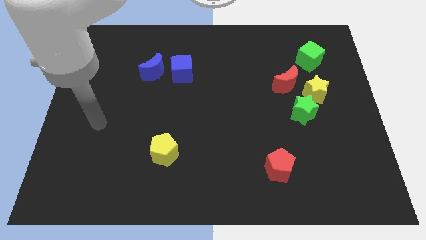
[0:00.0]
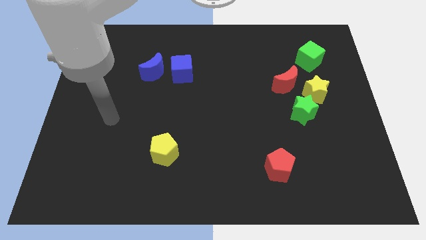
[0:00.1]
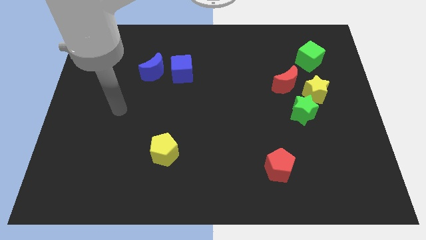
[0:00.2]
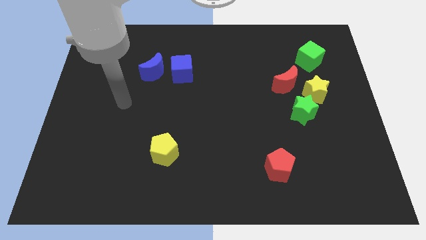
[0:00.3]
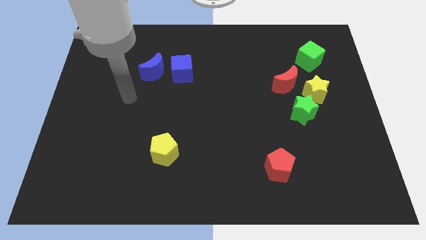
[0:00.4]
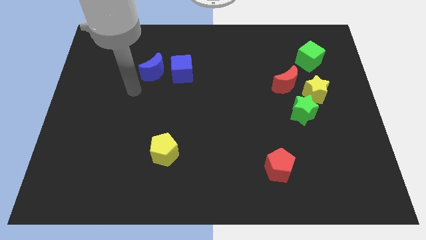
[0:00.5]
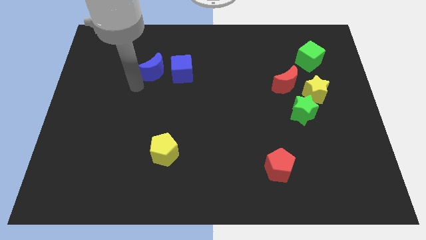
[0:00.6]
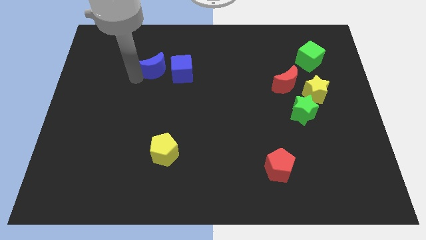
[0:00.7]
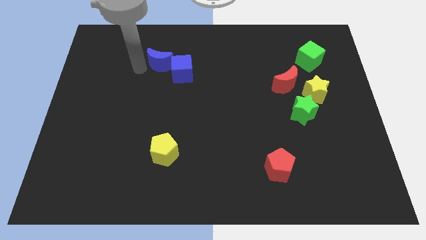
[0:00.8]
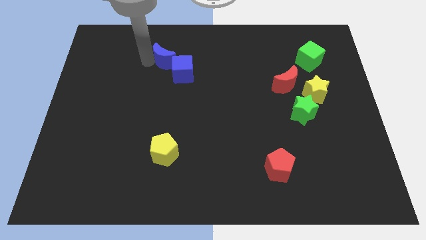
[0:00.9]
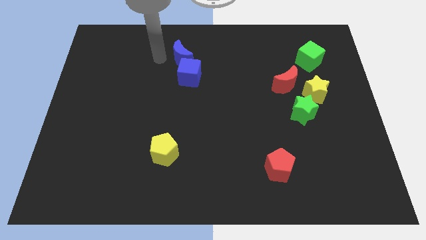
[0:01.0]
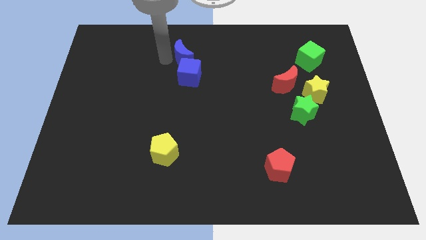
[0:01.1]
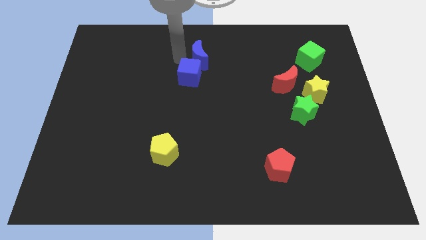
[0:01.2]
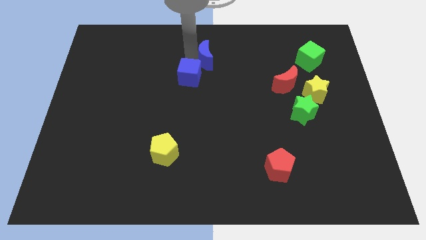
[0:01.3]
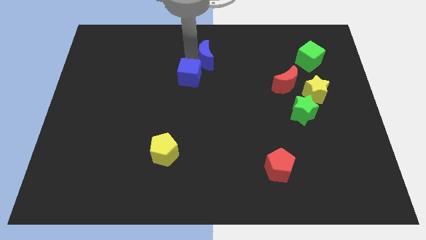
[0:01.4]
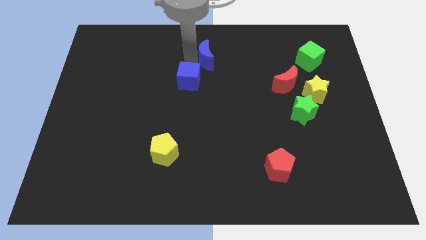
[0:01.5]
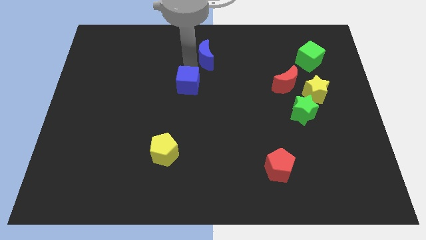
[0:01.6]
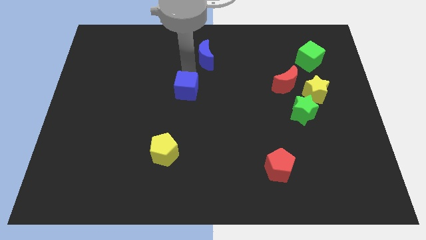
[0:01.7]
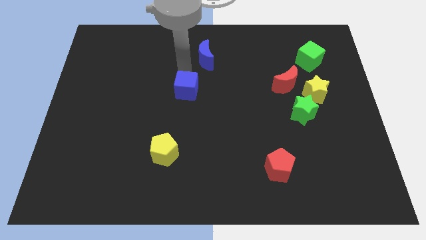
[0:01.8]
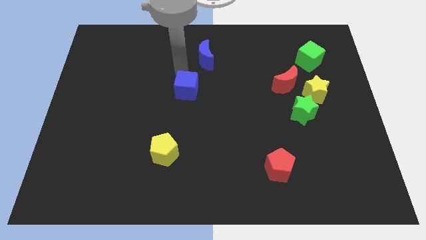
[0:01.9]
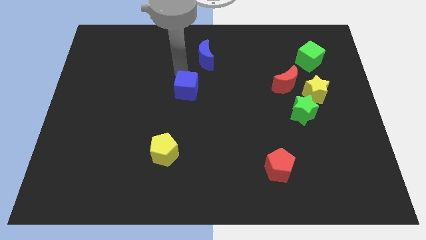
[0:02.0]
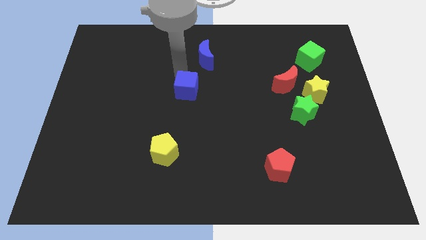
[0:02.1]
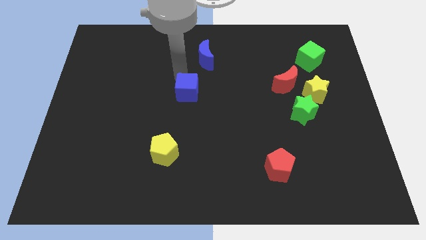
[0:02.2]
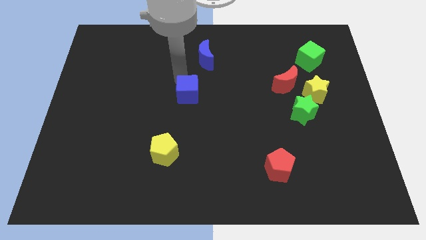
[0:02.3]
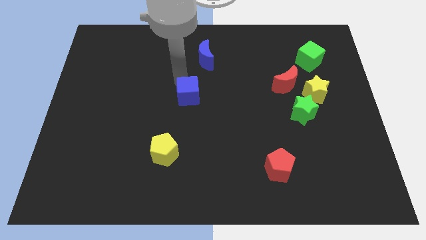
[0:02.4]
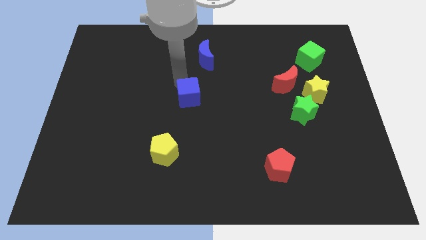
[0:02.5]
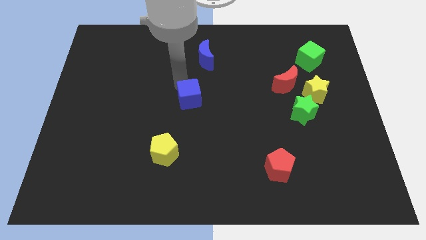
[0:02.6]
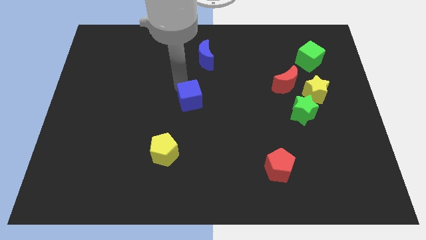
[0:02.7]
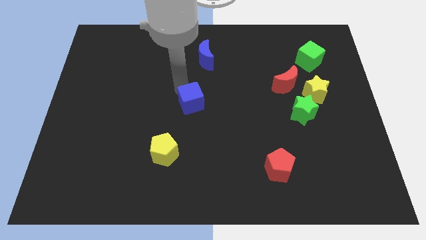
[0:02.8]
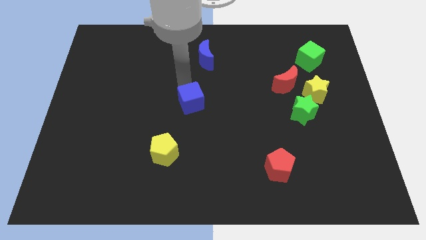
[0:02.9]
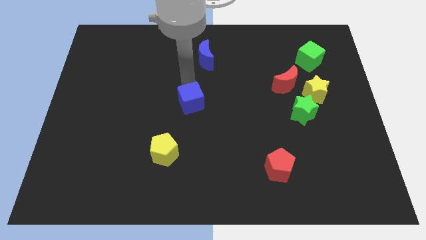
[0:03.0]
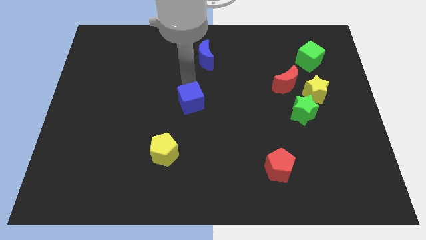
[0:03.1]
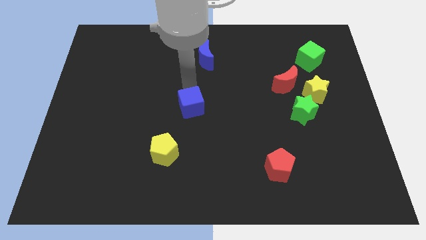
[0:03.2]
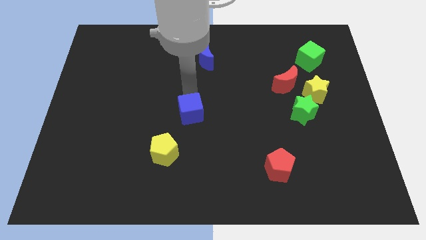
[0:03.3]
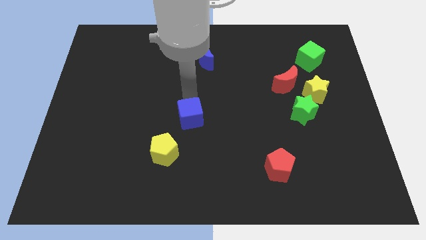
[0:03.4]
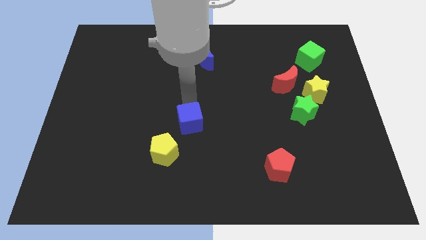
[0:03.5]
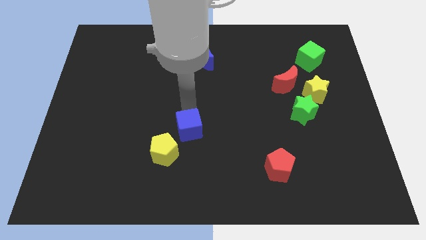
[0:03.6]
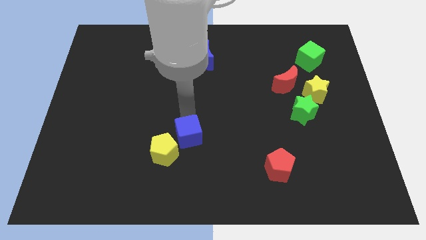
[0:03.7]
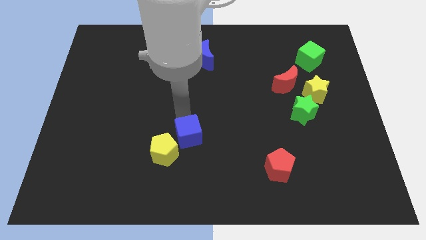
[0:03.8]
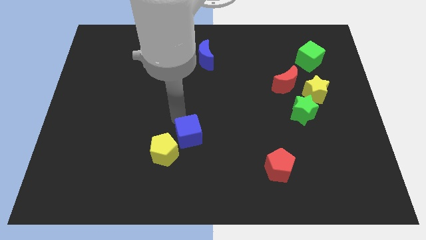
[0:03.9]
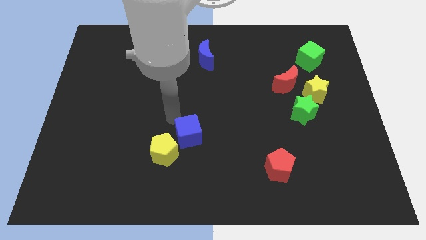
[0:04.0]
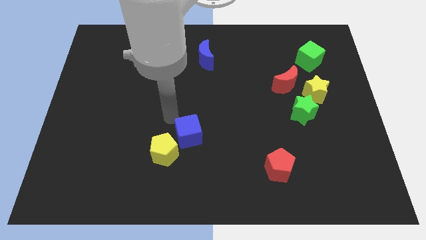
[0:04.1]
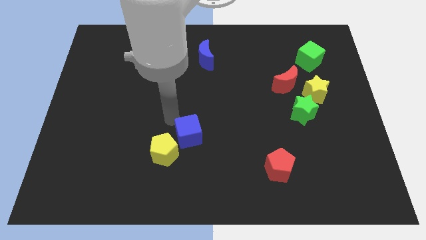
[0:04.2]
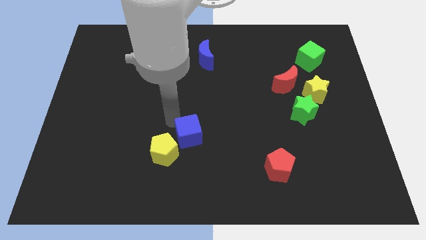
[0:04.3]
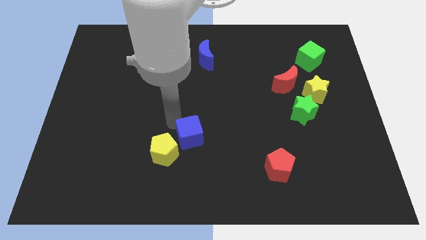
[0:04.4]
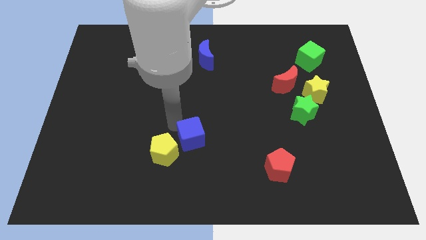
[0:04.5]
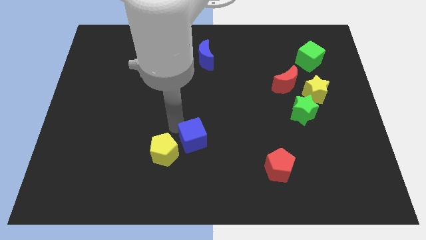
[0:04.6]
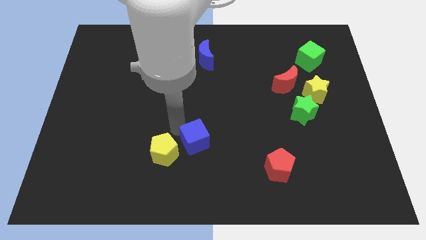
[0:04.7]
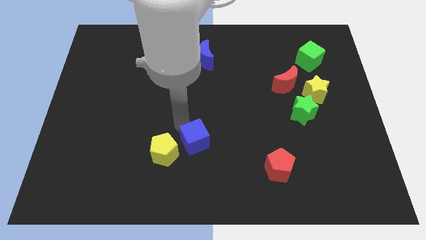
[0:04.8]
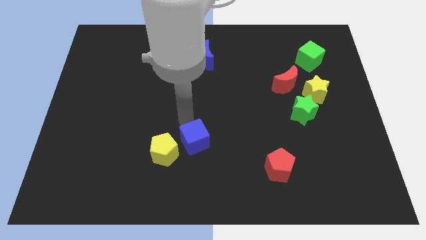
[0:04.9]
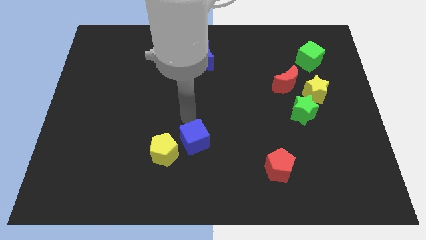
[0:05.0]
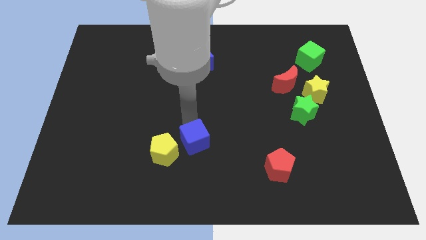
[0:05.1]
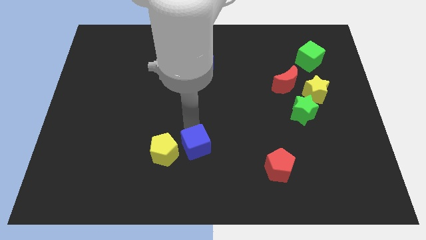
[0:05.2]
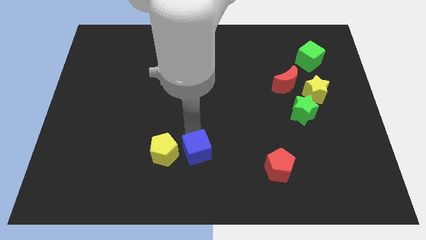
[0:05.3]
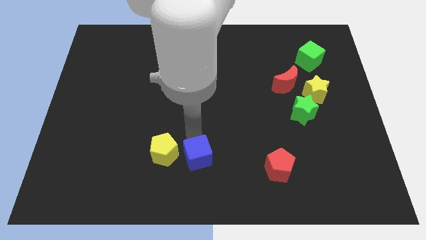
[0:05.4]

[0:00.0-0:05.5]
push the blue cube to the bottom side
